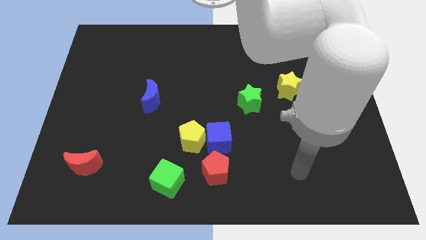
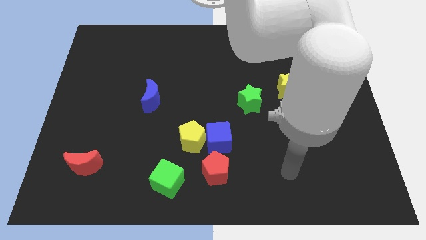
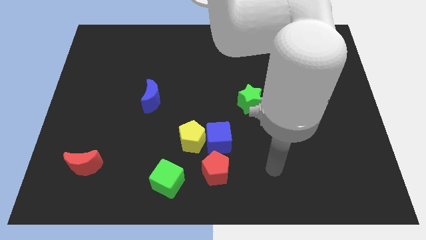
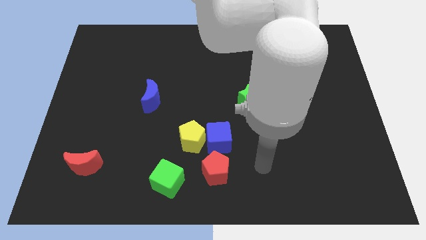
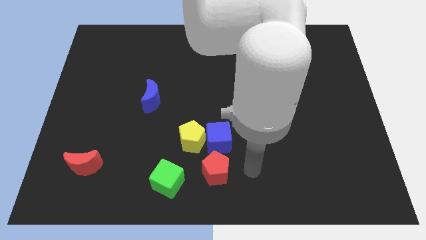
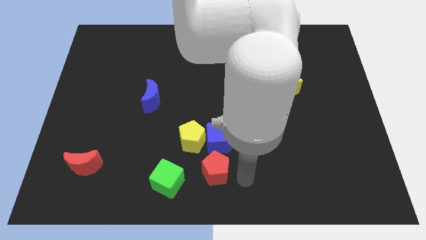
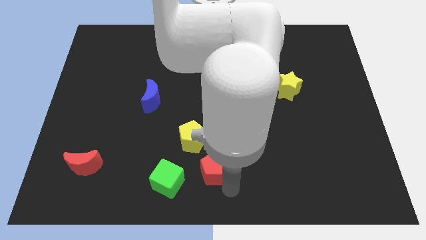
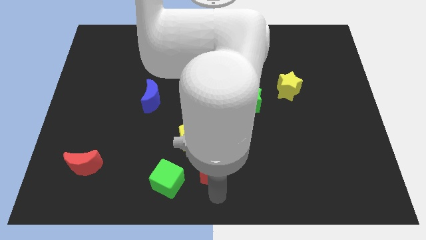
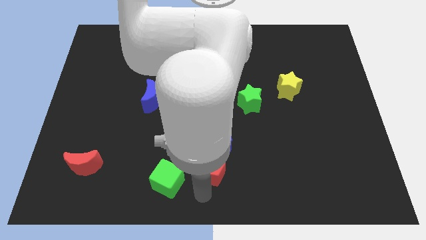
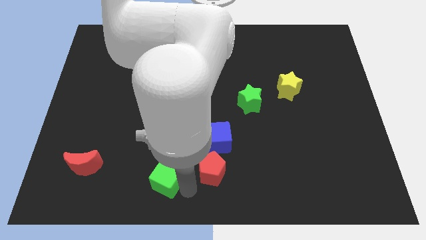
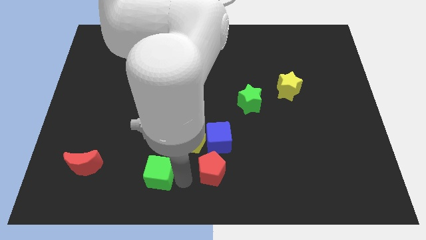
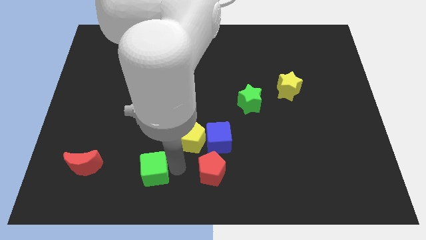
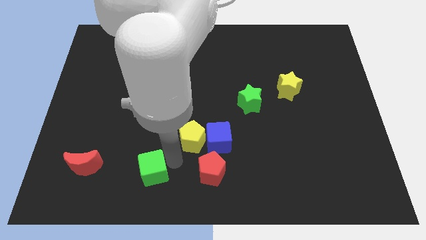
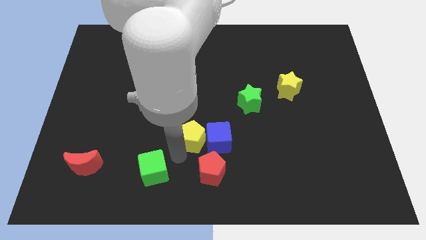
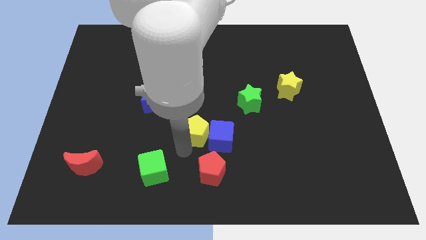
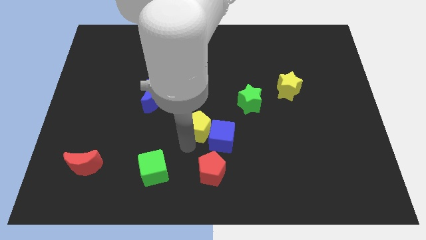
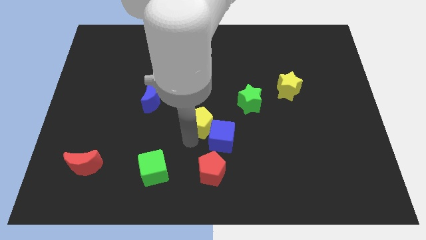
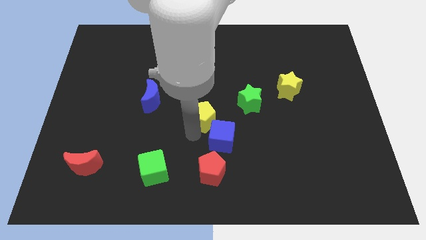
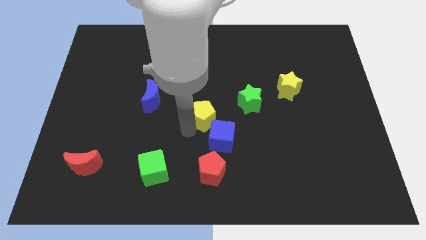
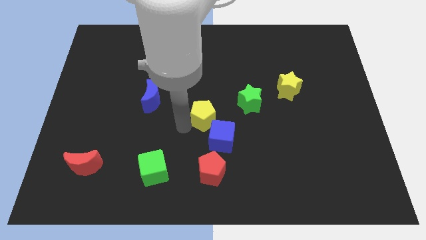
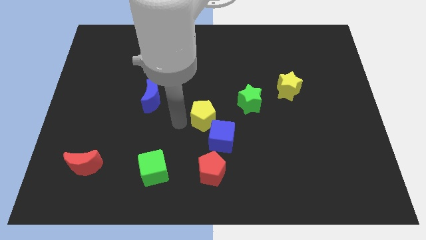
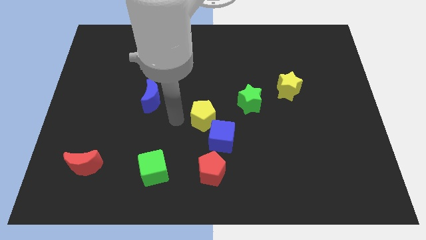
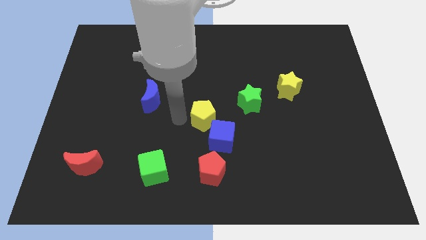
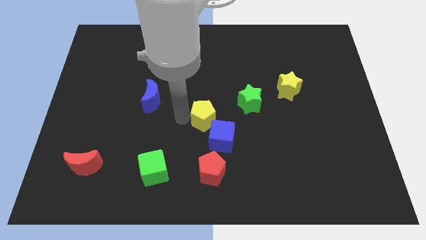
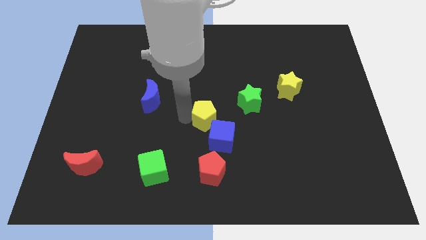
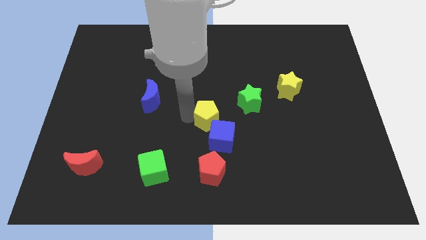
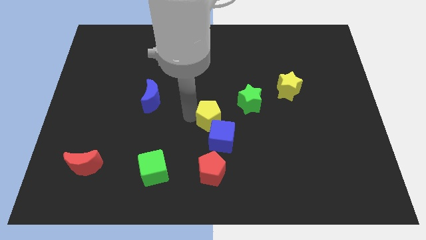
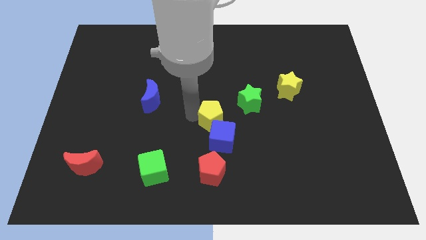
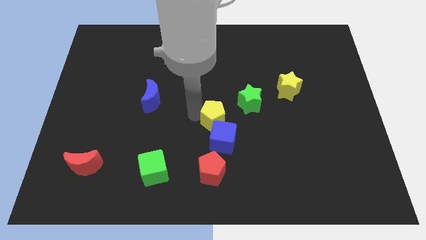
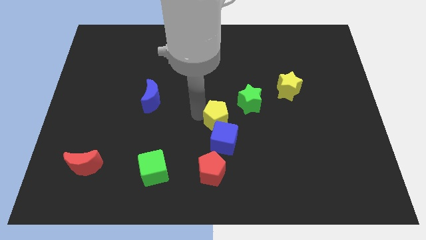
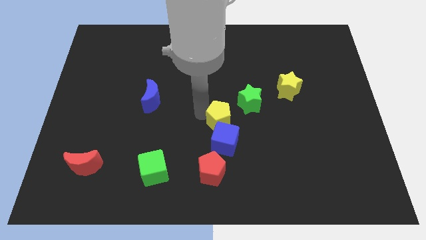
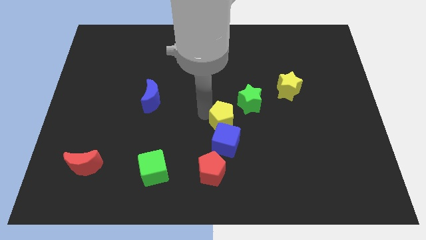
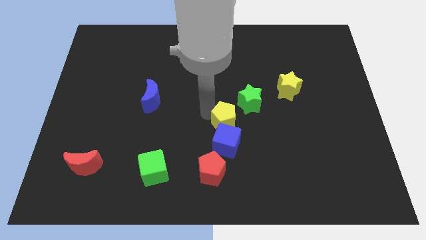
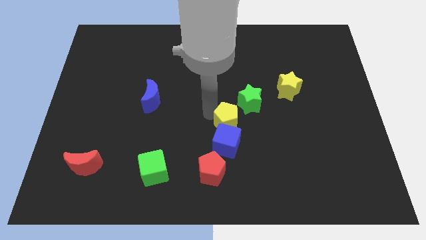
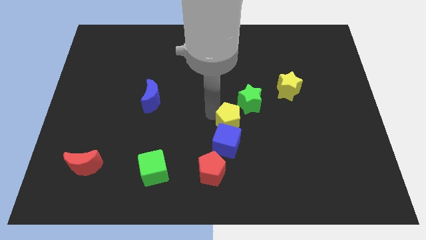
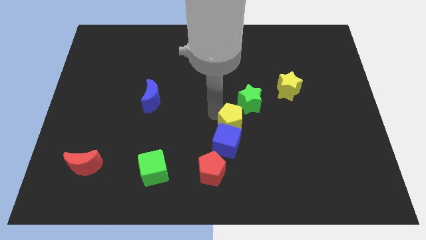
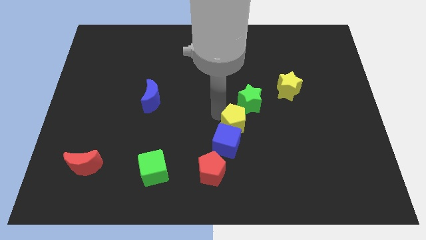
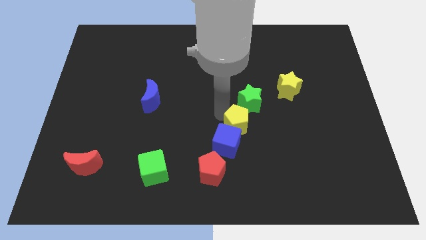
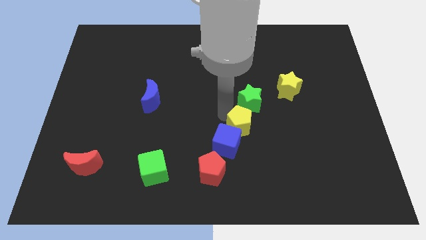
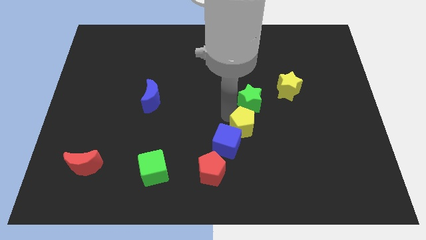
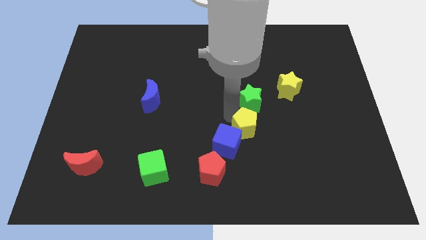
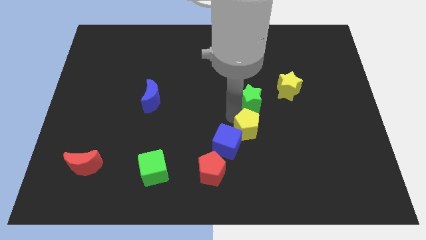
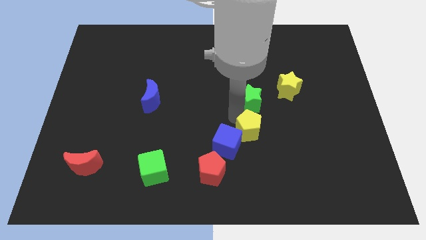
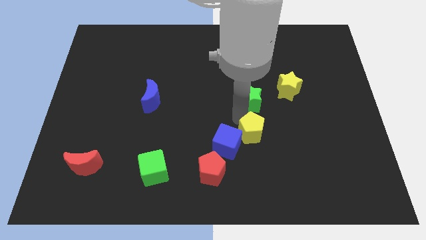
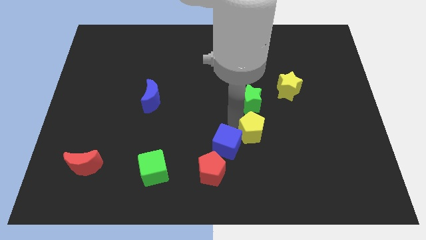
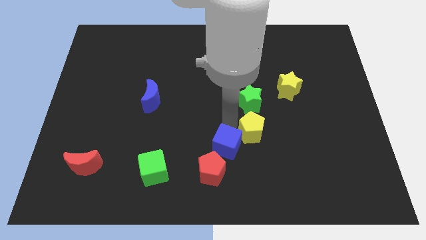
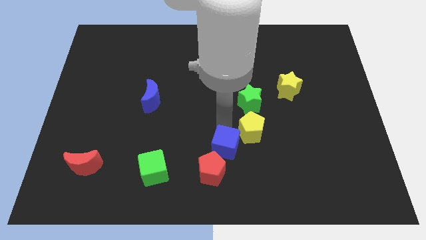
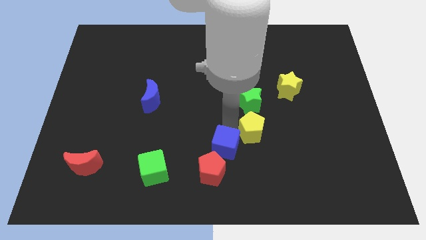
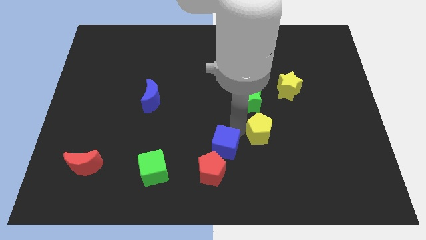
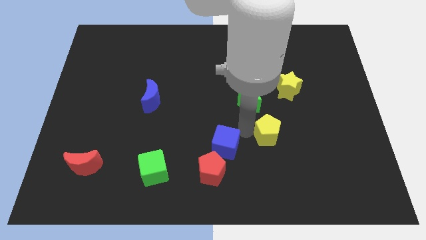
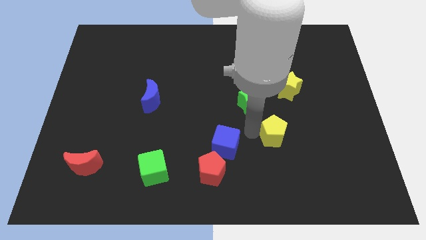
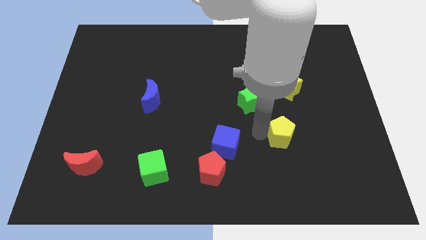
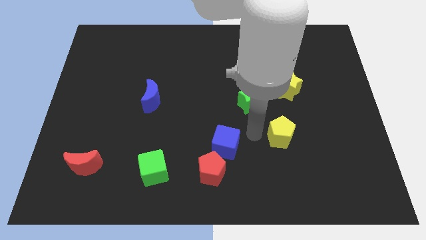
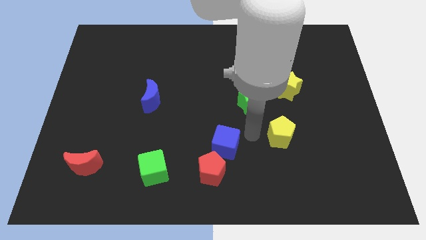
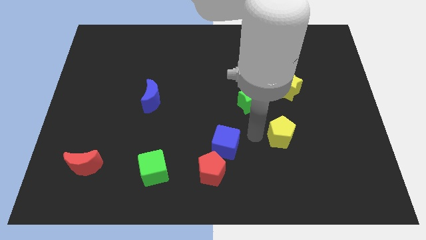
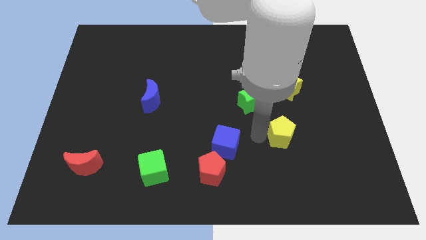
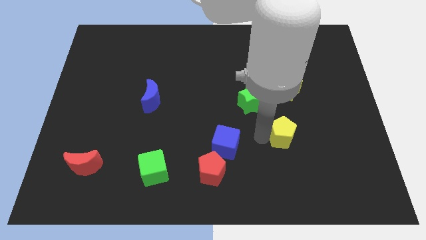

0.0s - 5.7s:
move the yellow pentagon right

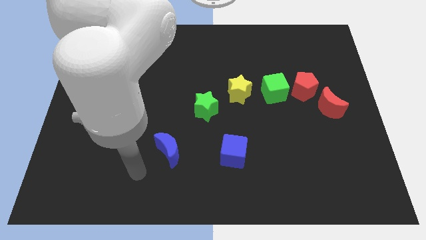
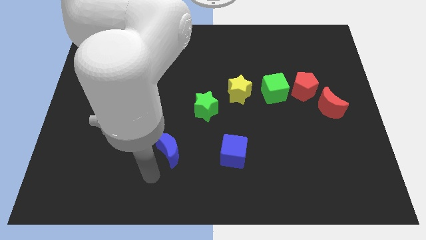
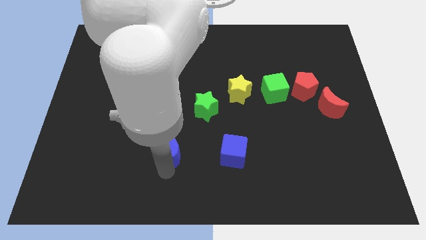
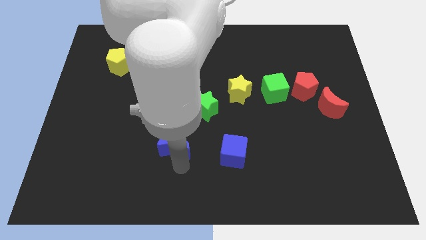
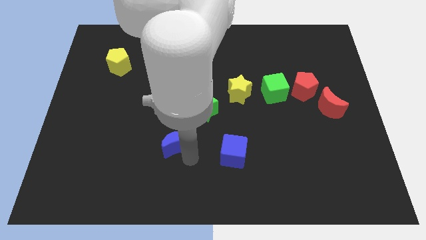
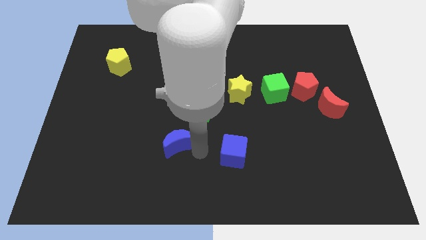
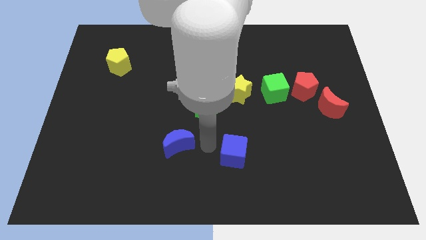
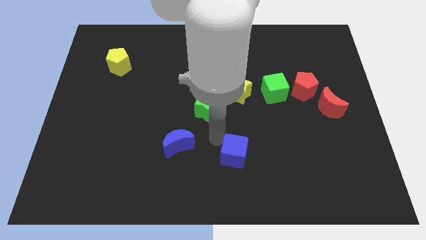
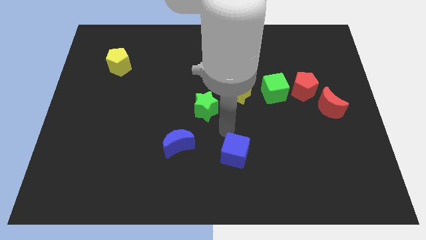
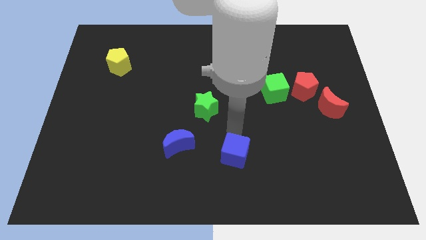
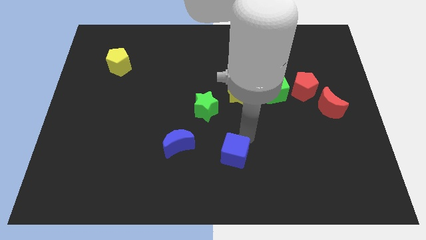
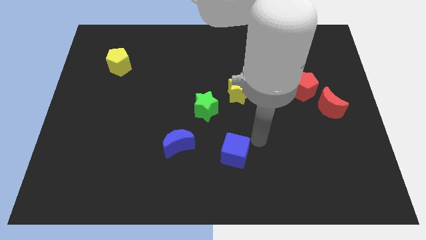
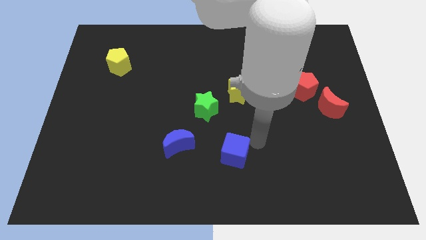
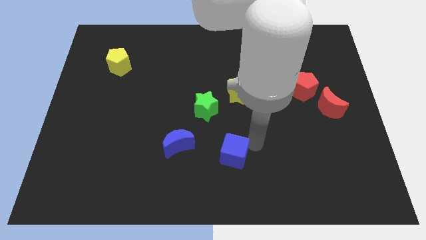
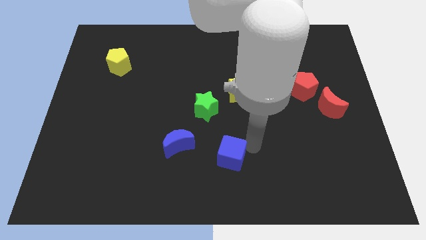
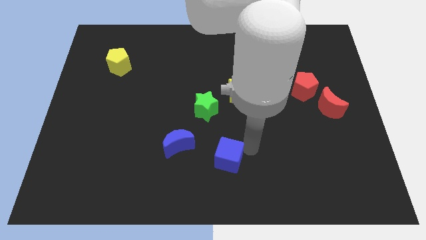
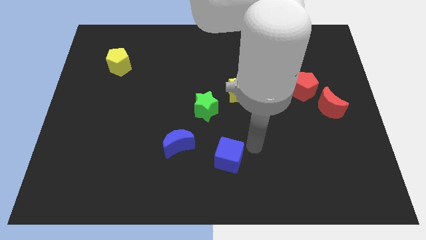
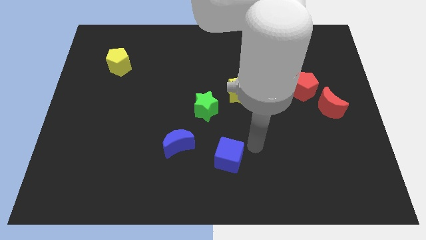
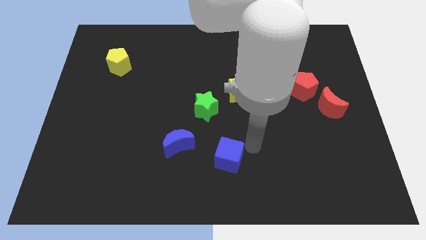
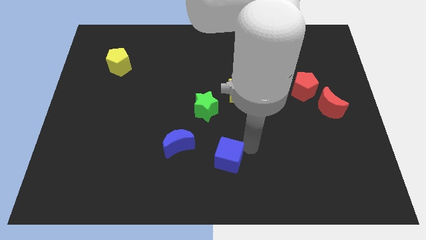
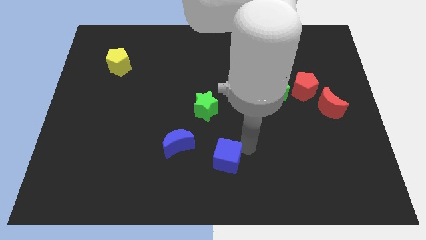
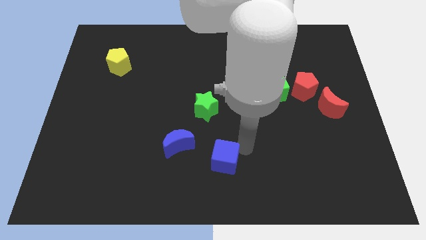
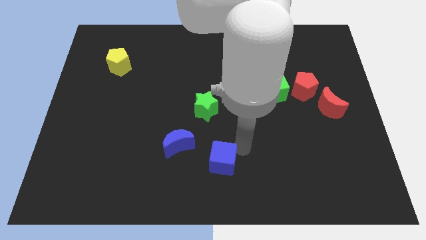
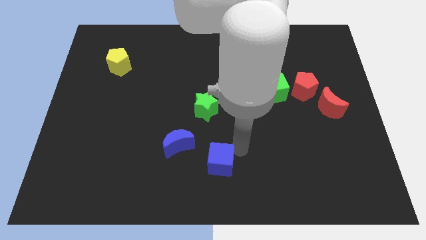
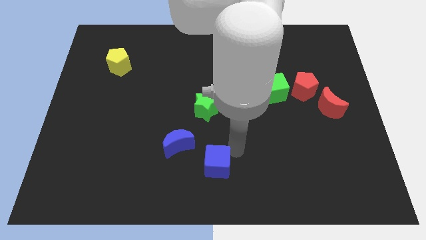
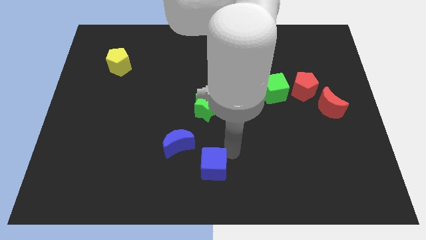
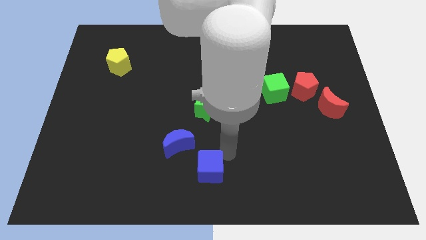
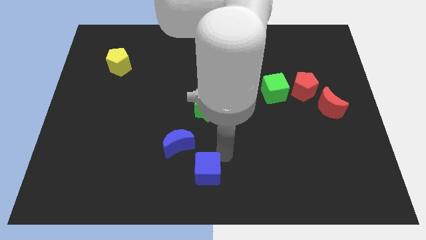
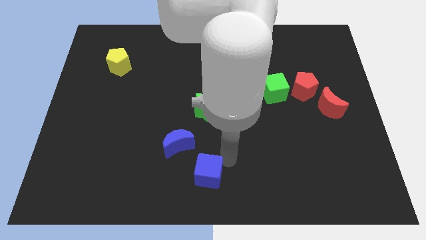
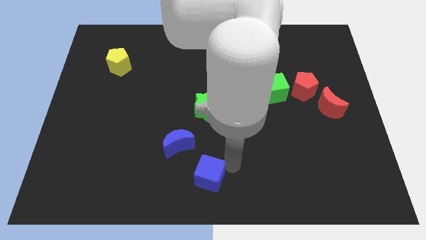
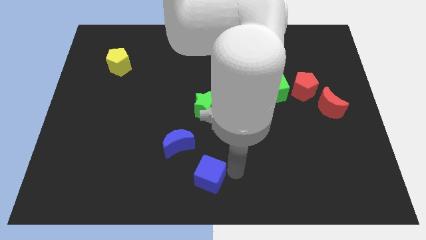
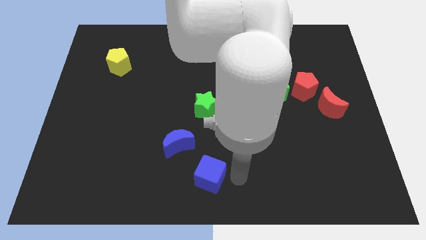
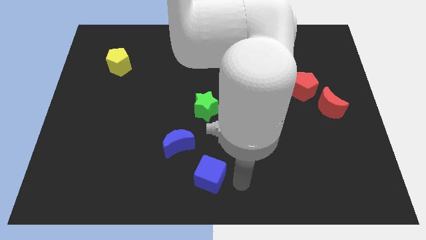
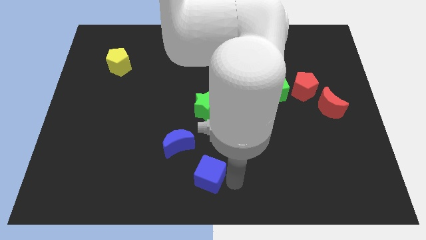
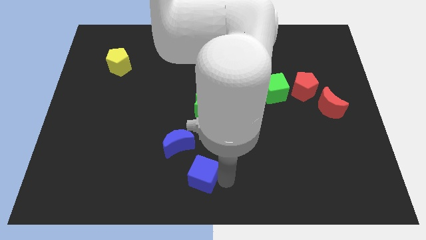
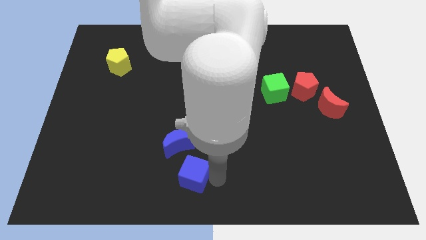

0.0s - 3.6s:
slightly slide the blue cube left
